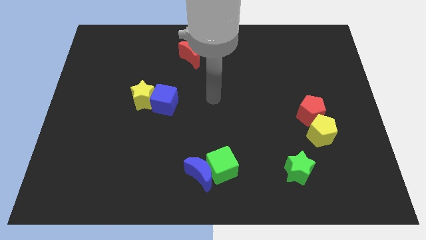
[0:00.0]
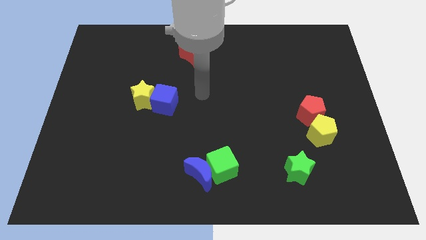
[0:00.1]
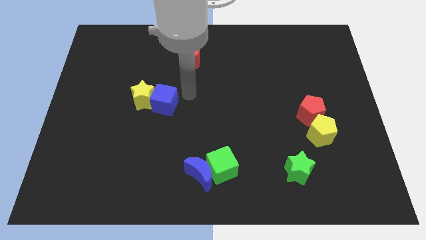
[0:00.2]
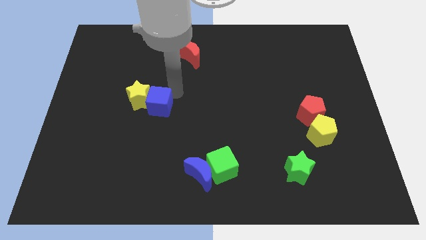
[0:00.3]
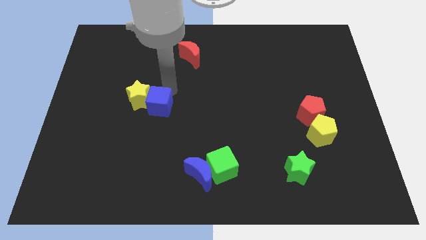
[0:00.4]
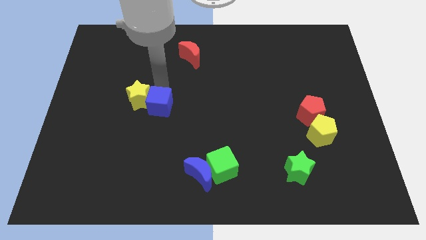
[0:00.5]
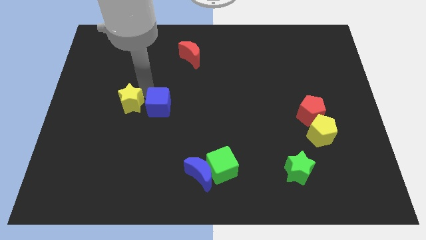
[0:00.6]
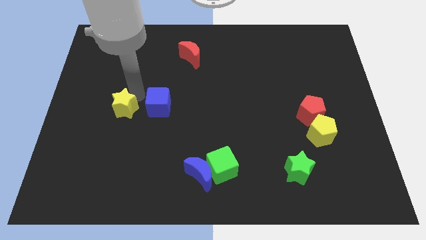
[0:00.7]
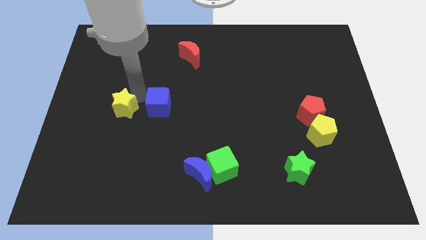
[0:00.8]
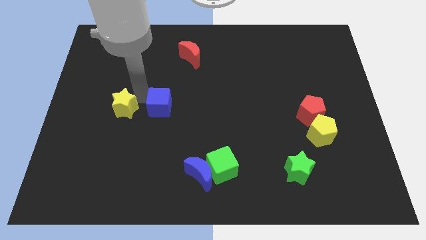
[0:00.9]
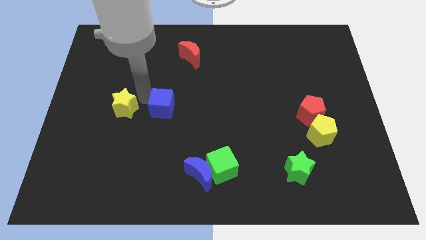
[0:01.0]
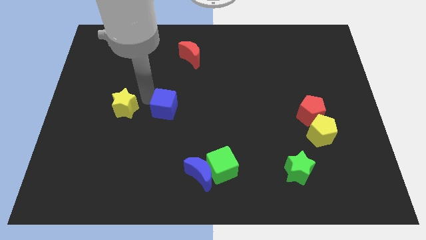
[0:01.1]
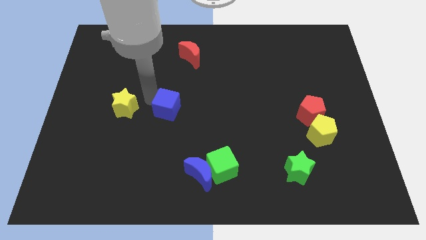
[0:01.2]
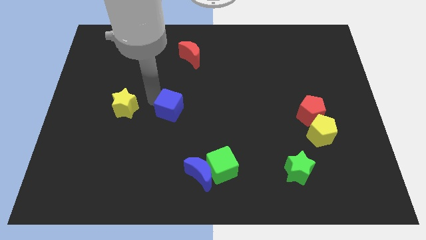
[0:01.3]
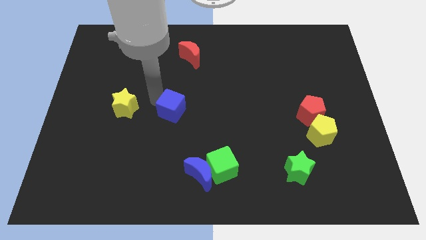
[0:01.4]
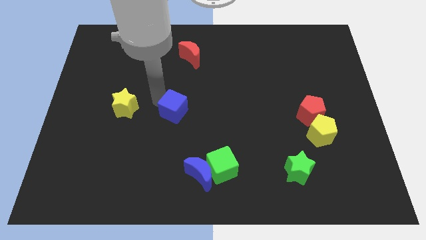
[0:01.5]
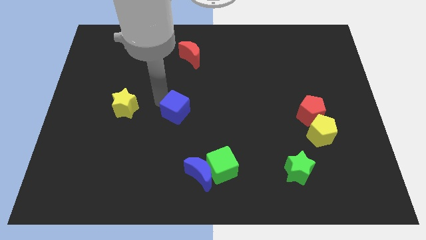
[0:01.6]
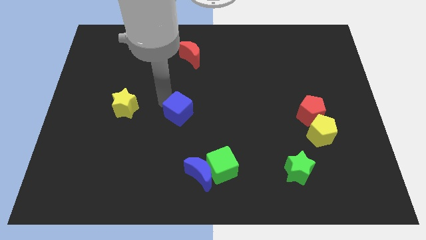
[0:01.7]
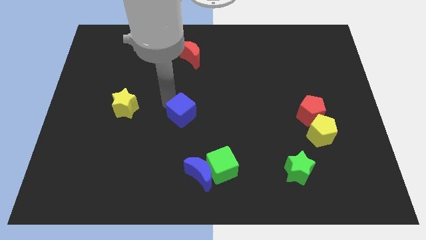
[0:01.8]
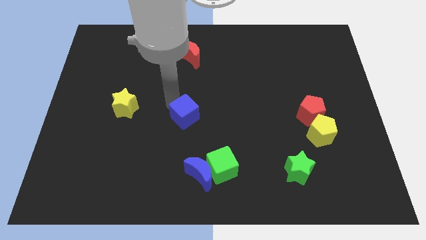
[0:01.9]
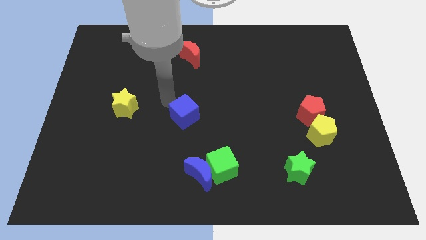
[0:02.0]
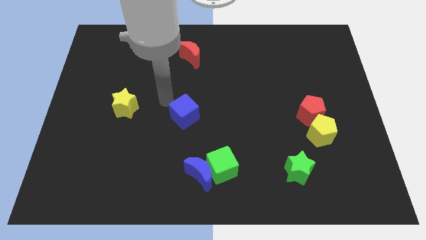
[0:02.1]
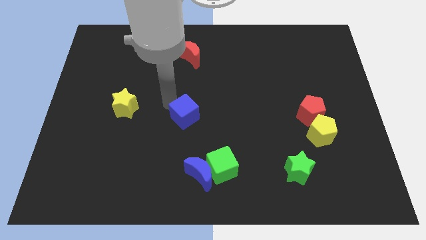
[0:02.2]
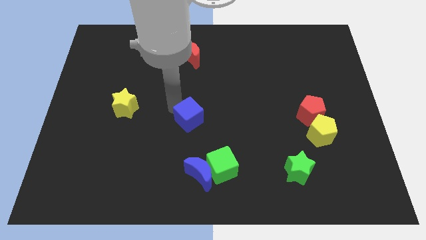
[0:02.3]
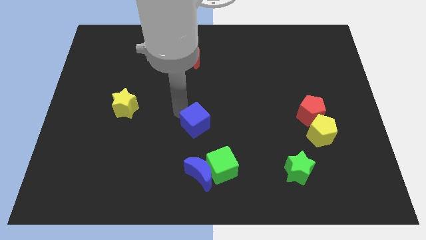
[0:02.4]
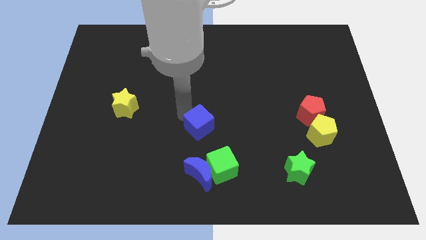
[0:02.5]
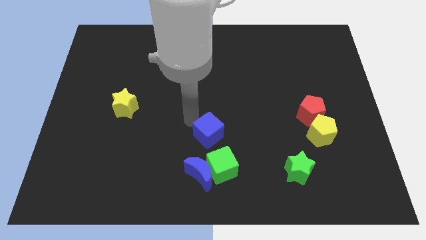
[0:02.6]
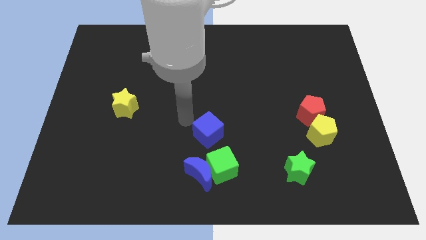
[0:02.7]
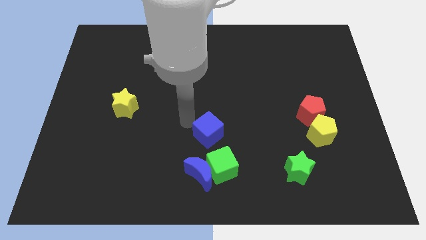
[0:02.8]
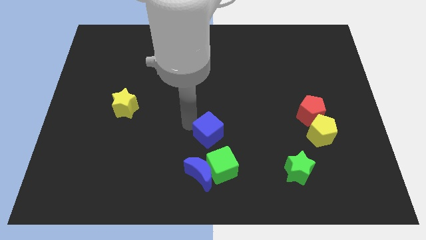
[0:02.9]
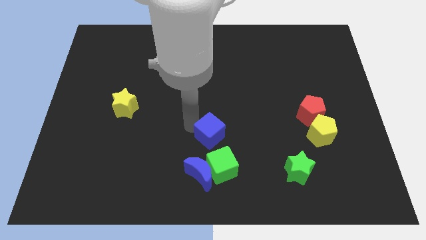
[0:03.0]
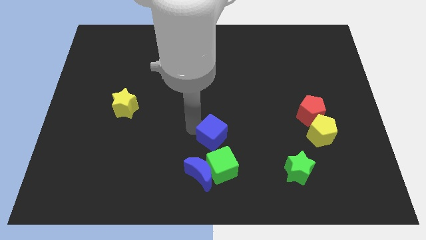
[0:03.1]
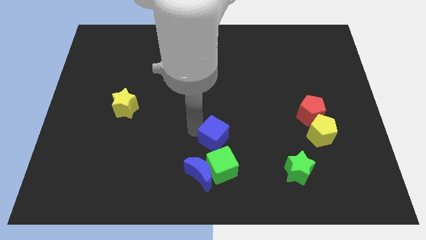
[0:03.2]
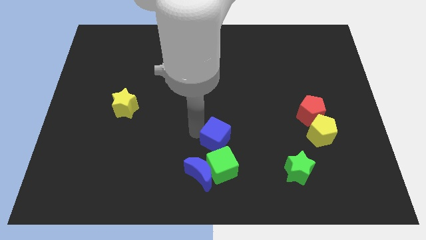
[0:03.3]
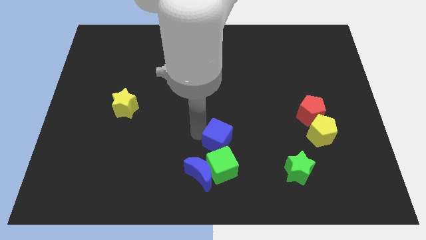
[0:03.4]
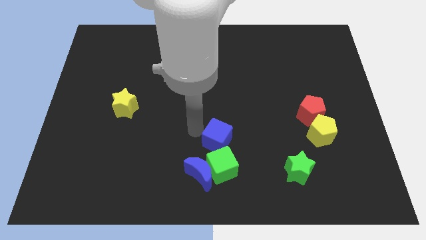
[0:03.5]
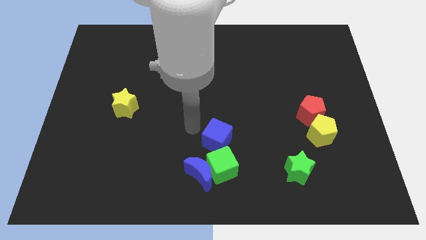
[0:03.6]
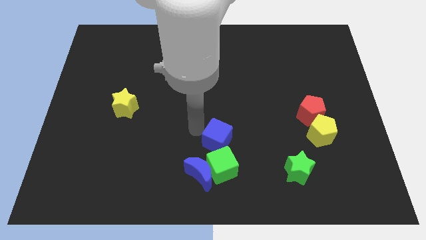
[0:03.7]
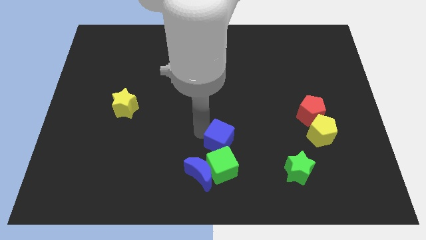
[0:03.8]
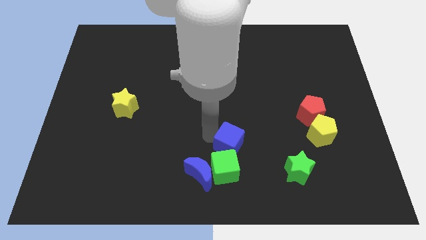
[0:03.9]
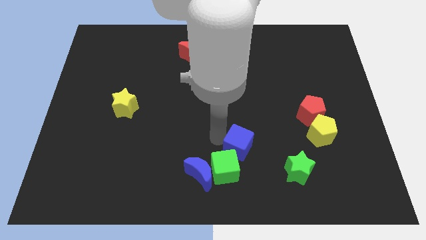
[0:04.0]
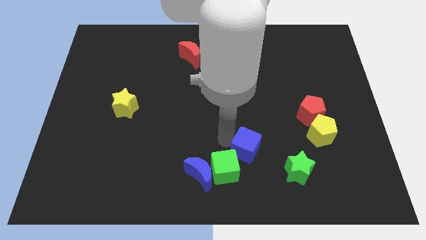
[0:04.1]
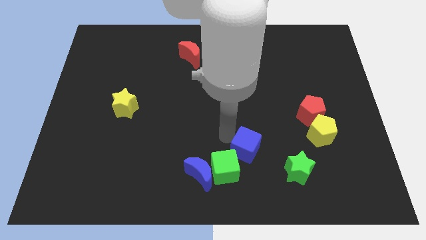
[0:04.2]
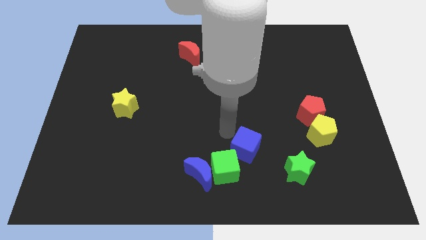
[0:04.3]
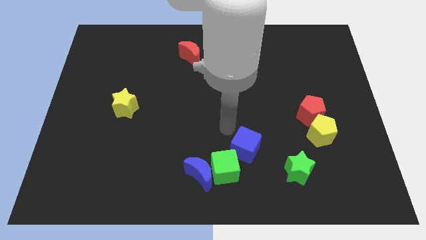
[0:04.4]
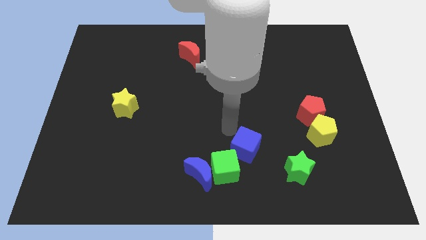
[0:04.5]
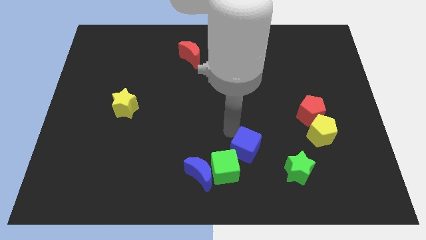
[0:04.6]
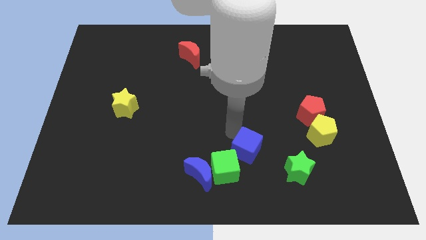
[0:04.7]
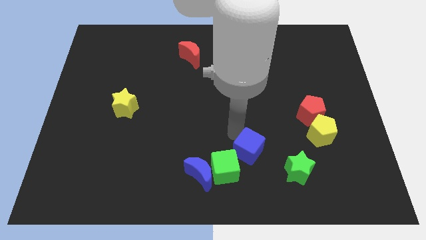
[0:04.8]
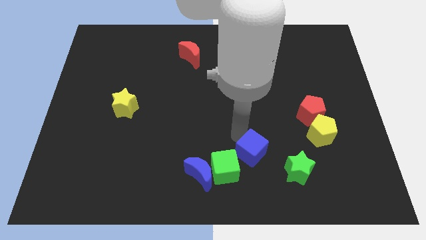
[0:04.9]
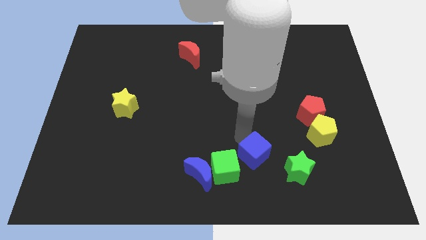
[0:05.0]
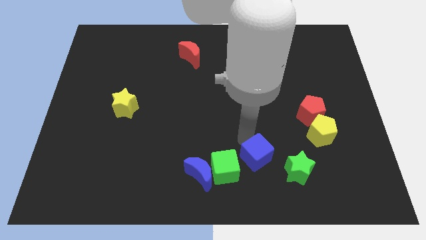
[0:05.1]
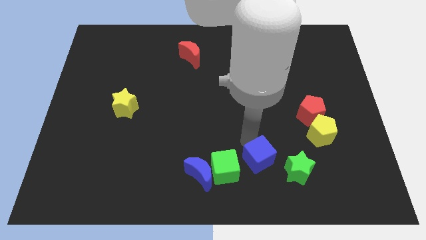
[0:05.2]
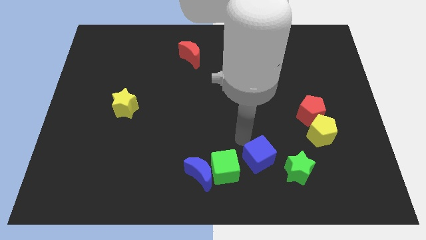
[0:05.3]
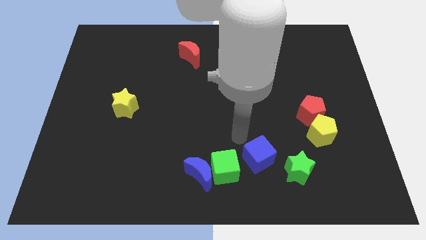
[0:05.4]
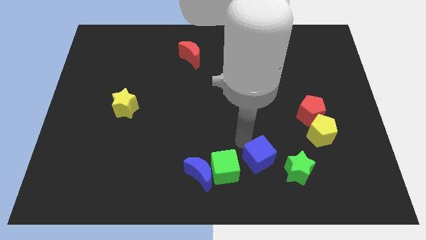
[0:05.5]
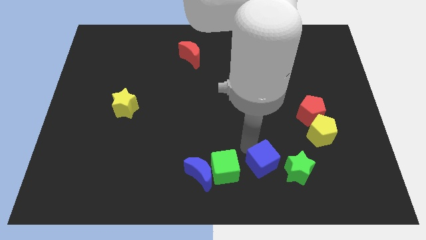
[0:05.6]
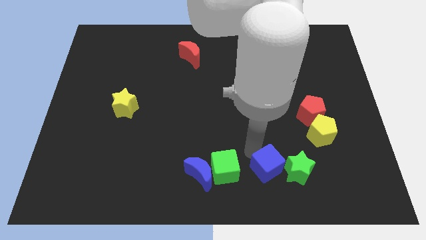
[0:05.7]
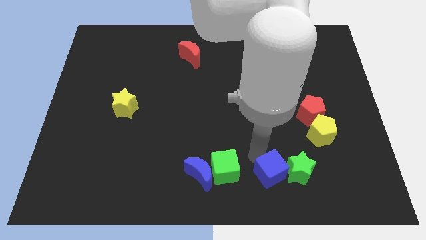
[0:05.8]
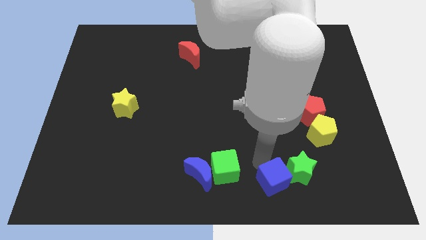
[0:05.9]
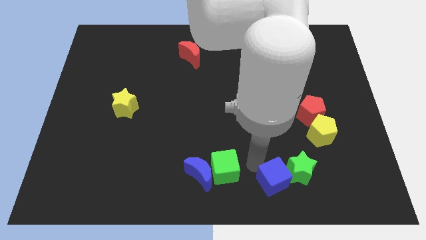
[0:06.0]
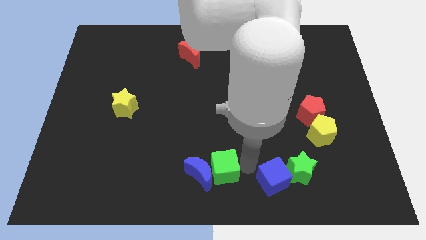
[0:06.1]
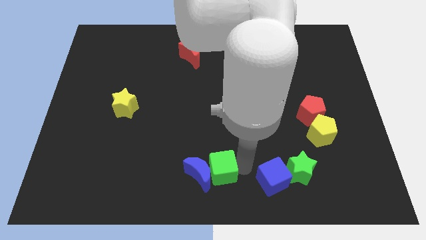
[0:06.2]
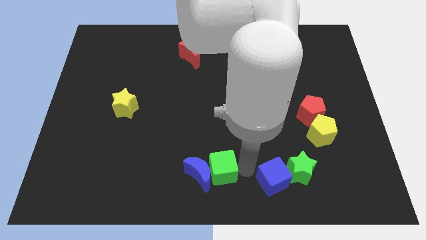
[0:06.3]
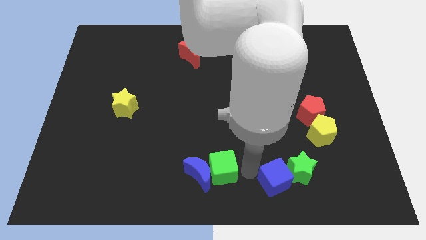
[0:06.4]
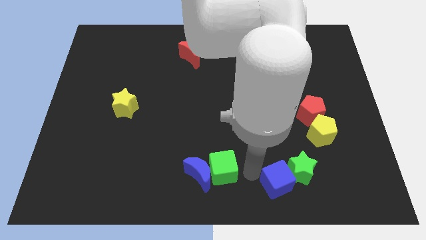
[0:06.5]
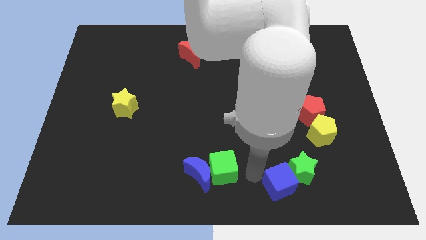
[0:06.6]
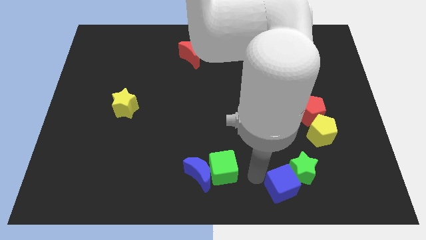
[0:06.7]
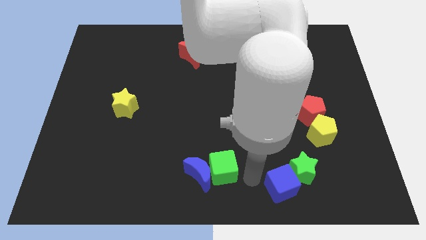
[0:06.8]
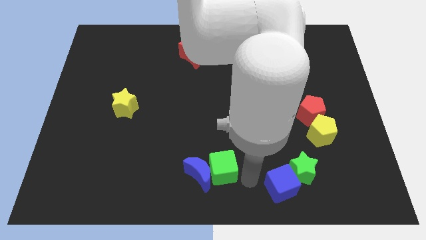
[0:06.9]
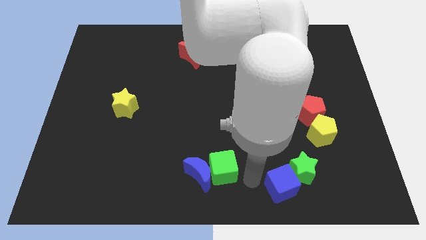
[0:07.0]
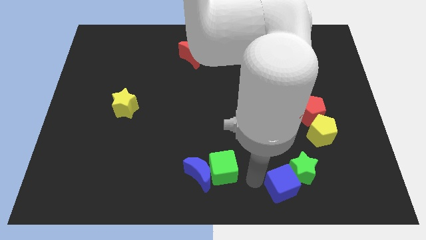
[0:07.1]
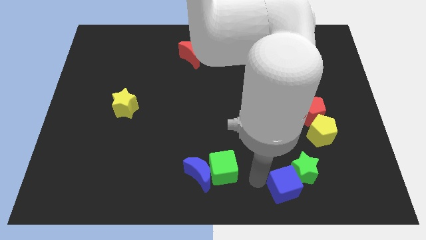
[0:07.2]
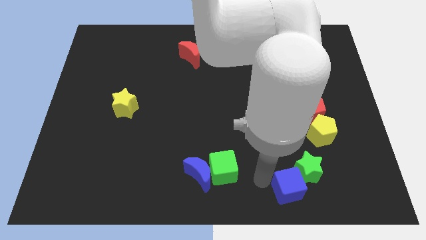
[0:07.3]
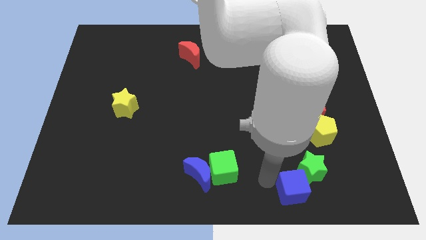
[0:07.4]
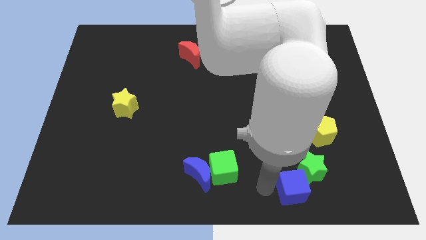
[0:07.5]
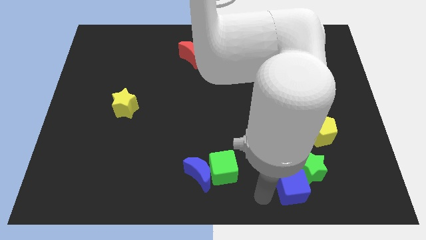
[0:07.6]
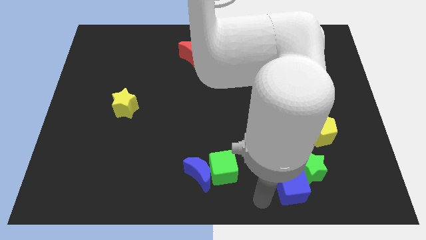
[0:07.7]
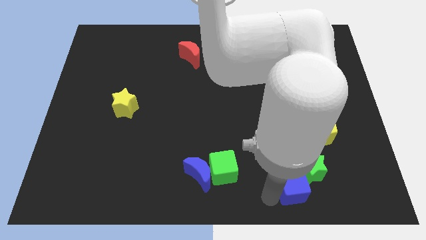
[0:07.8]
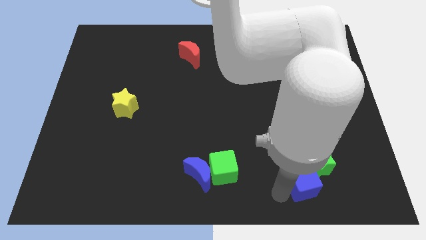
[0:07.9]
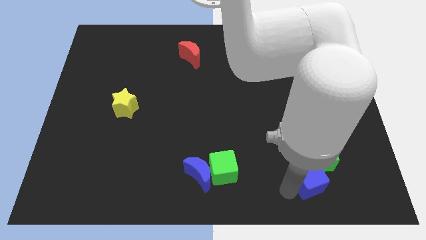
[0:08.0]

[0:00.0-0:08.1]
slide the blue cube to the bottom of the yellow pentagon
